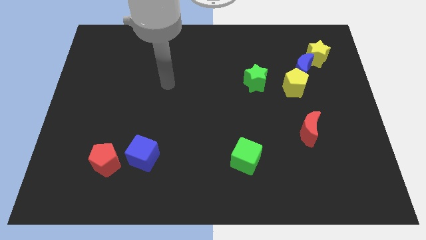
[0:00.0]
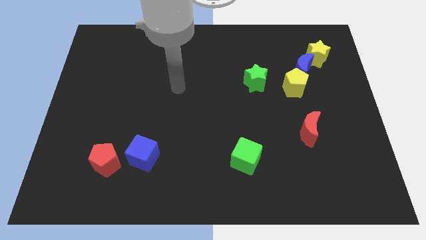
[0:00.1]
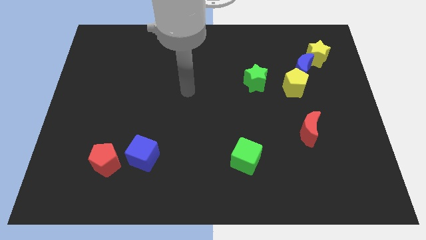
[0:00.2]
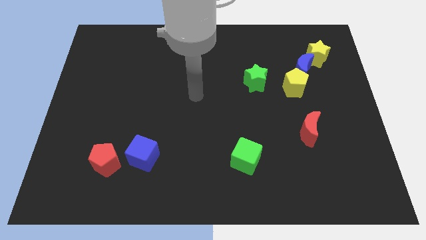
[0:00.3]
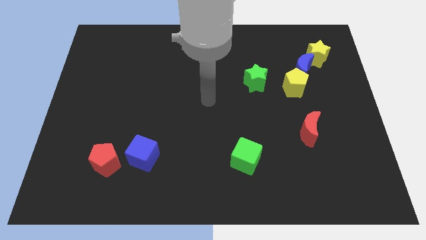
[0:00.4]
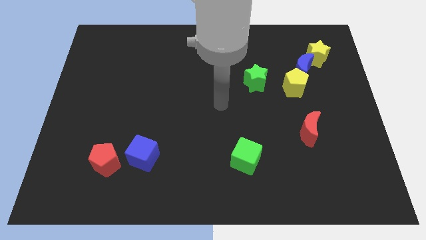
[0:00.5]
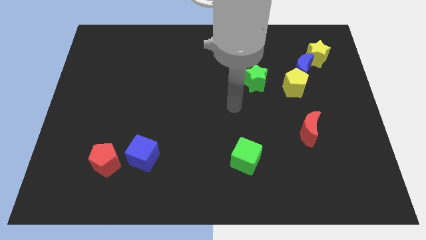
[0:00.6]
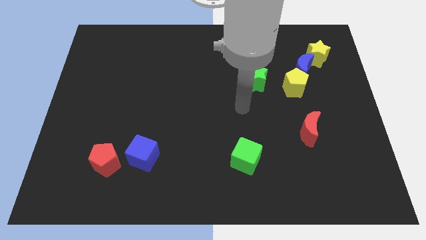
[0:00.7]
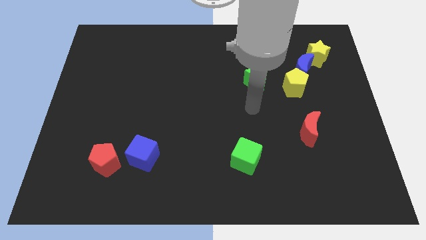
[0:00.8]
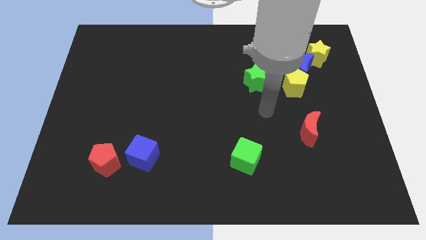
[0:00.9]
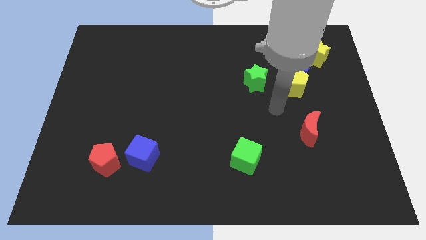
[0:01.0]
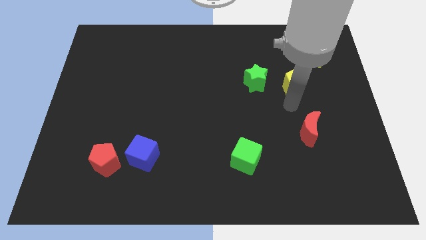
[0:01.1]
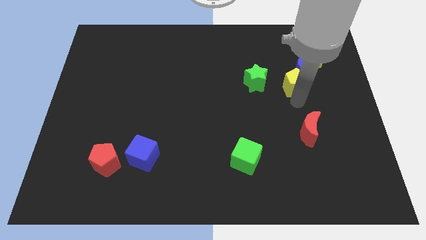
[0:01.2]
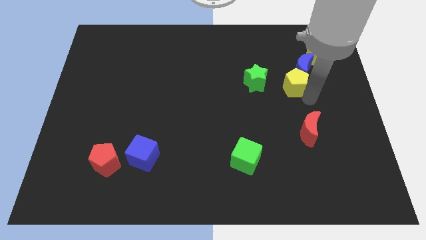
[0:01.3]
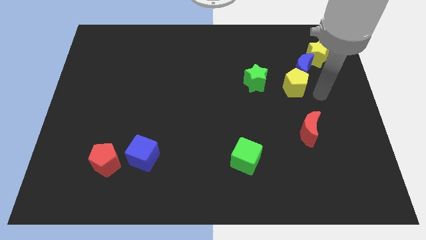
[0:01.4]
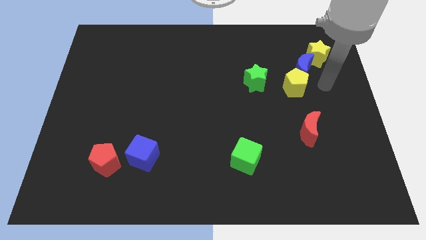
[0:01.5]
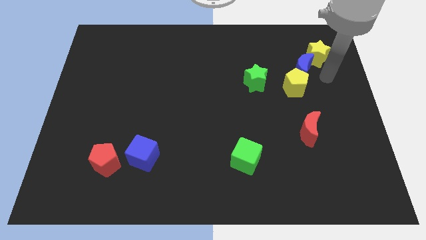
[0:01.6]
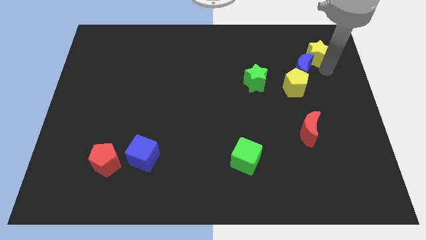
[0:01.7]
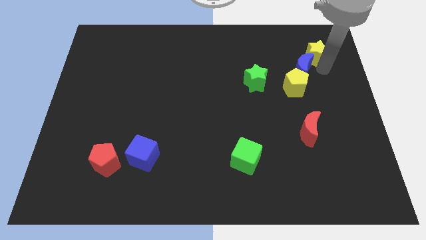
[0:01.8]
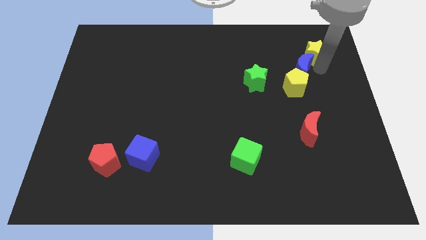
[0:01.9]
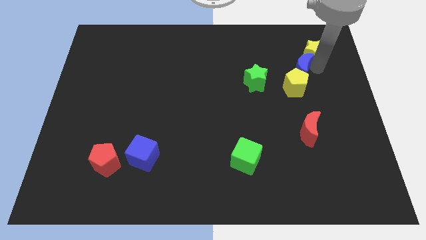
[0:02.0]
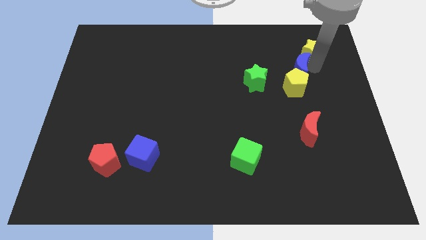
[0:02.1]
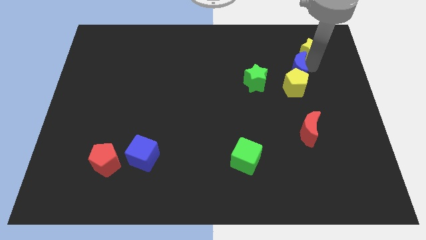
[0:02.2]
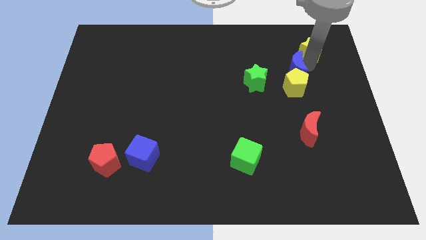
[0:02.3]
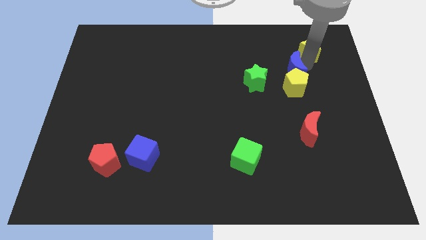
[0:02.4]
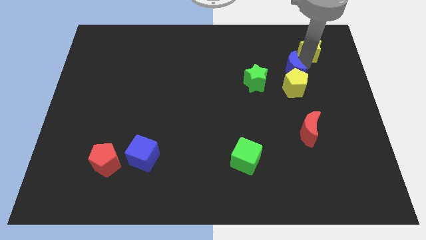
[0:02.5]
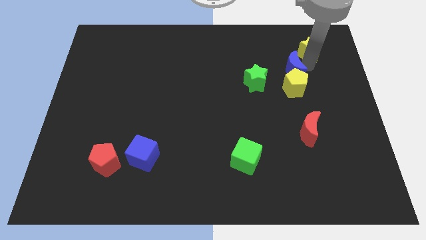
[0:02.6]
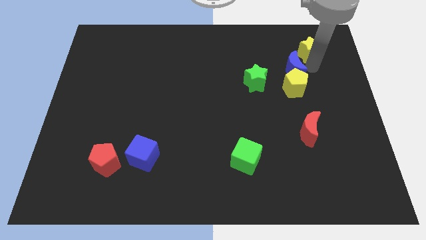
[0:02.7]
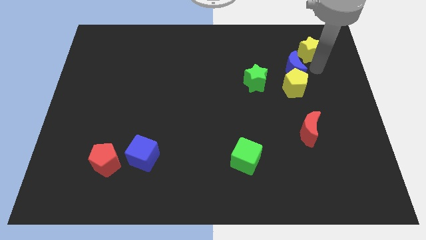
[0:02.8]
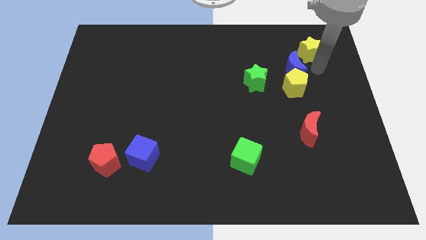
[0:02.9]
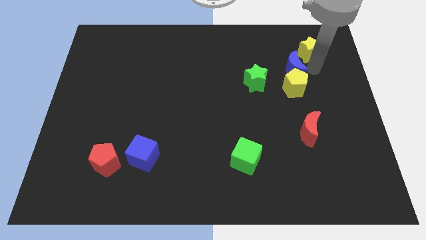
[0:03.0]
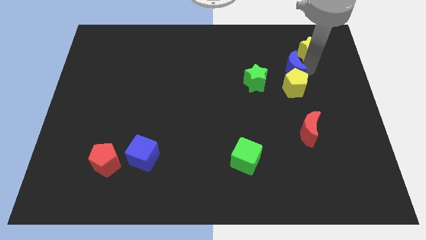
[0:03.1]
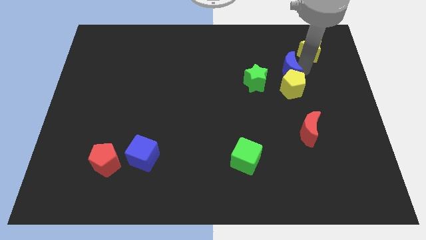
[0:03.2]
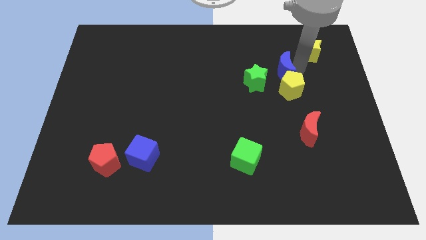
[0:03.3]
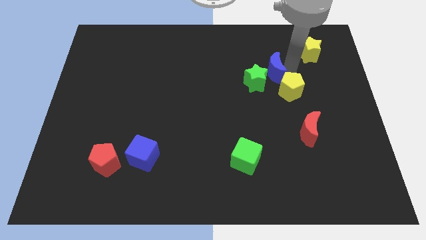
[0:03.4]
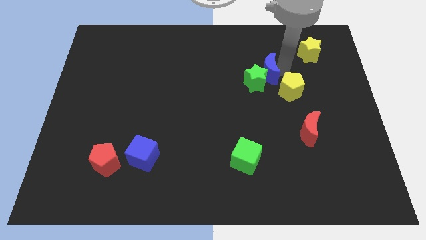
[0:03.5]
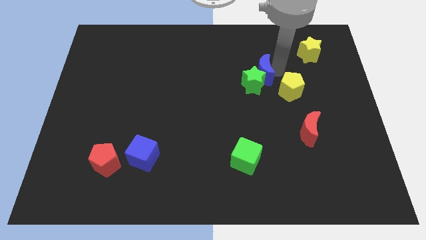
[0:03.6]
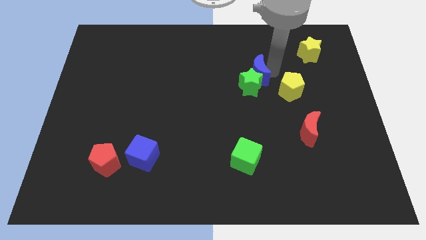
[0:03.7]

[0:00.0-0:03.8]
pull the blue moon apart from the yellow pentagon and yellow star

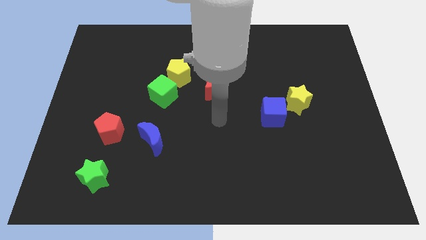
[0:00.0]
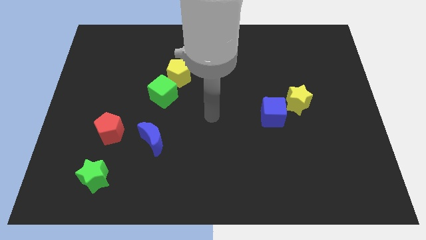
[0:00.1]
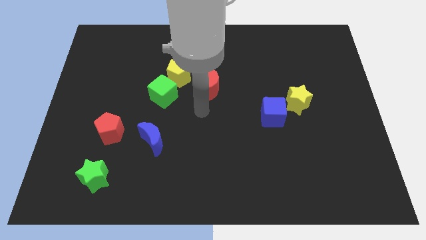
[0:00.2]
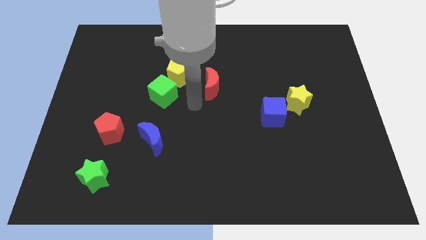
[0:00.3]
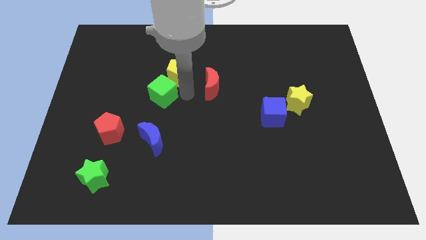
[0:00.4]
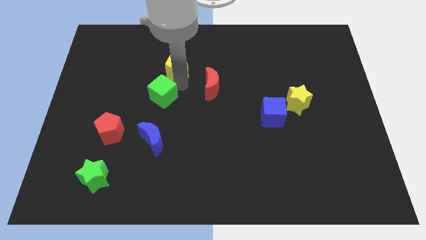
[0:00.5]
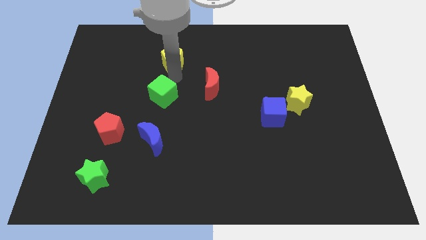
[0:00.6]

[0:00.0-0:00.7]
separate the green cube from the yellow pentagon

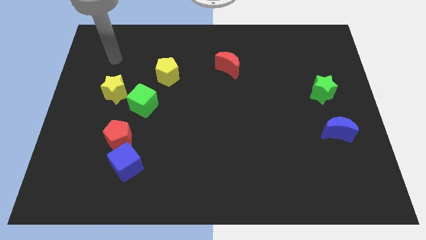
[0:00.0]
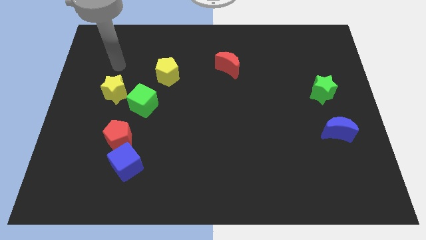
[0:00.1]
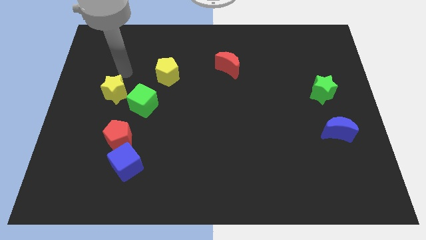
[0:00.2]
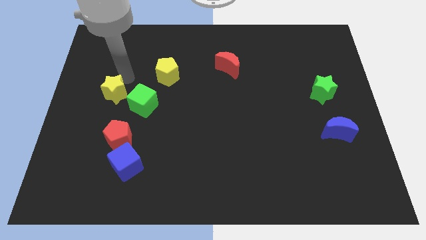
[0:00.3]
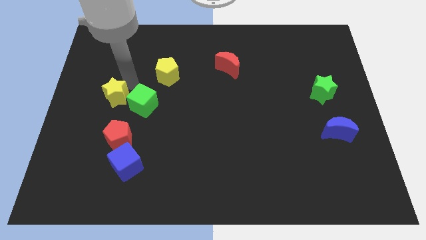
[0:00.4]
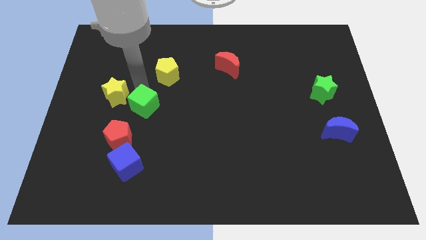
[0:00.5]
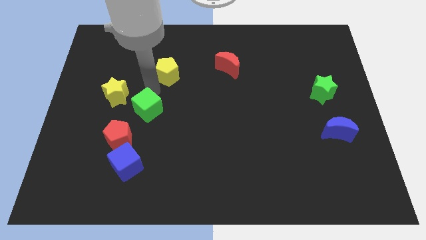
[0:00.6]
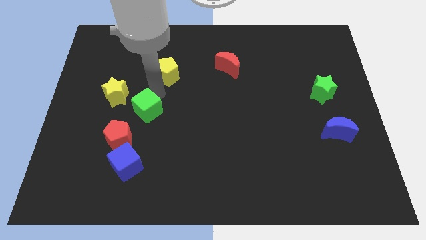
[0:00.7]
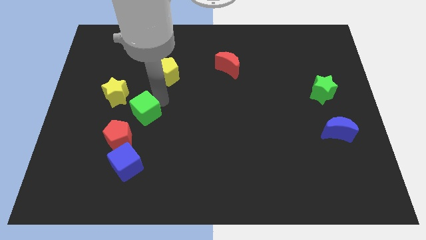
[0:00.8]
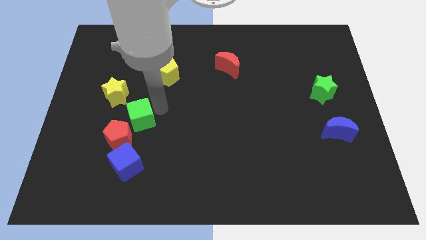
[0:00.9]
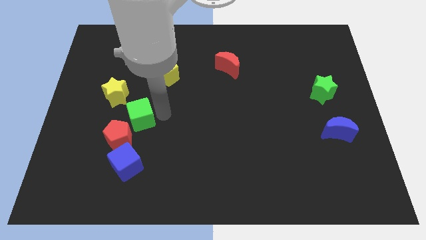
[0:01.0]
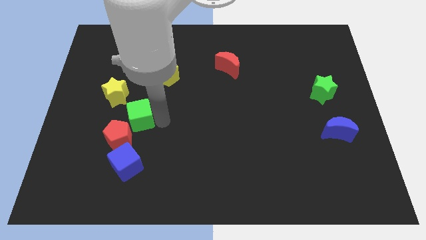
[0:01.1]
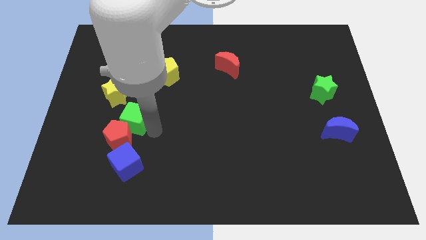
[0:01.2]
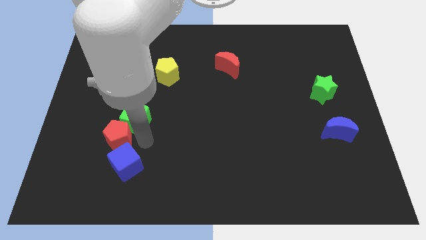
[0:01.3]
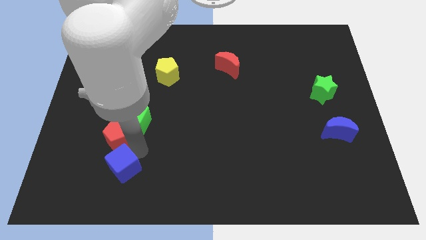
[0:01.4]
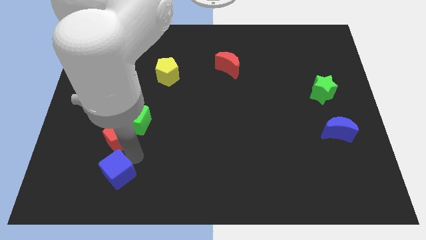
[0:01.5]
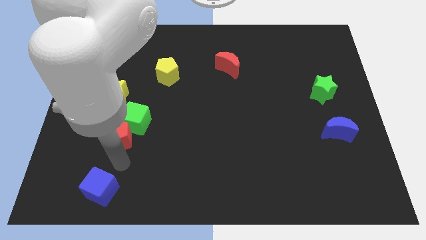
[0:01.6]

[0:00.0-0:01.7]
separate the red pentagon from the blue cube

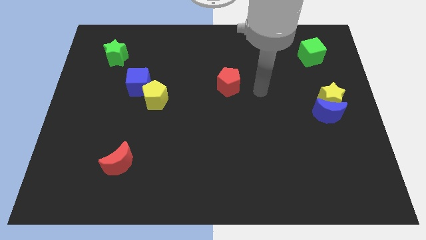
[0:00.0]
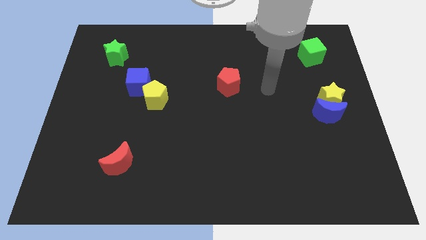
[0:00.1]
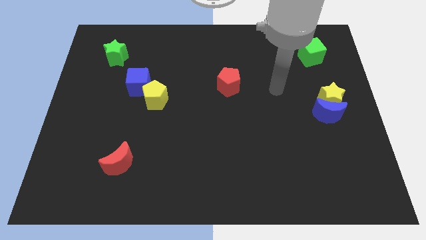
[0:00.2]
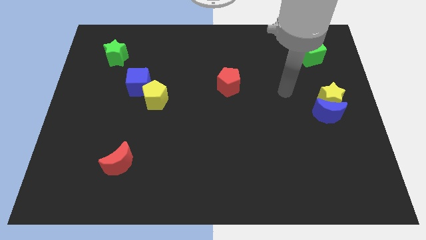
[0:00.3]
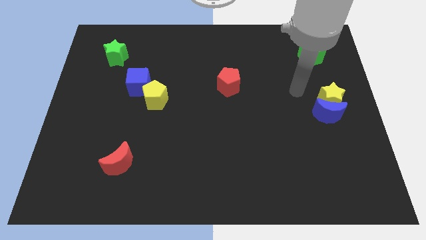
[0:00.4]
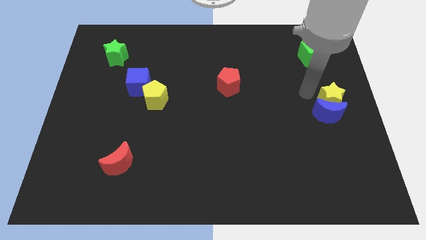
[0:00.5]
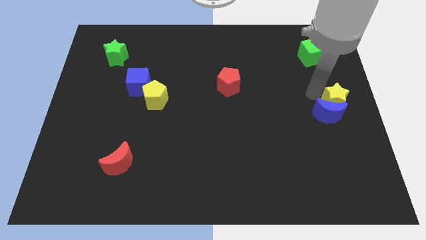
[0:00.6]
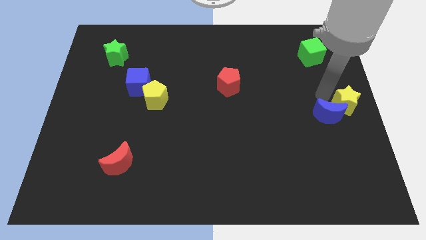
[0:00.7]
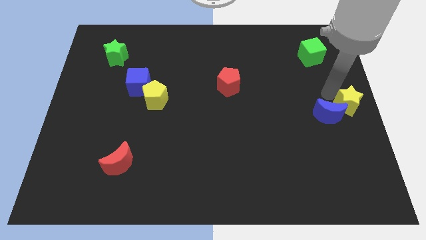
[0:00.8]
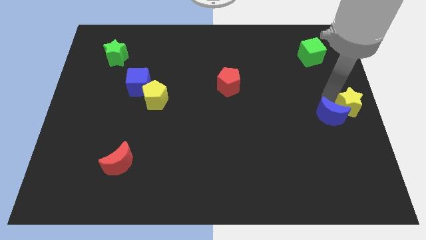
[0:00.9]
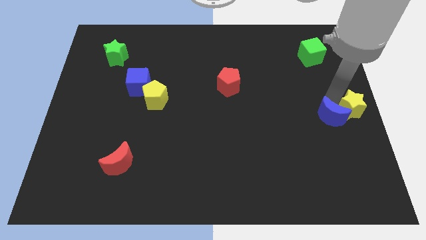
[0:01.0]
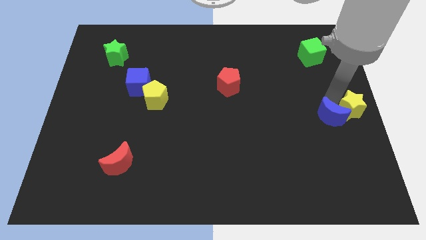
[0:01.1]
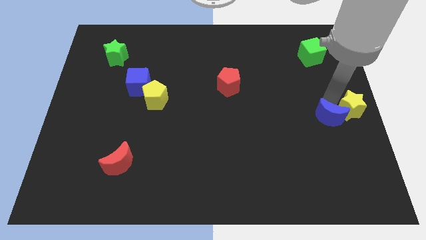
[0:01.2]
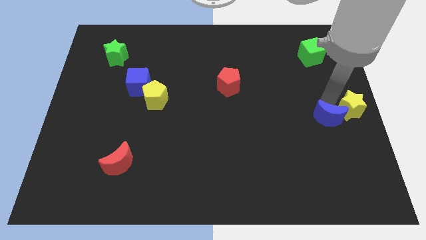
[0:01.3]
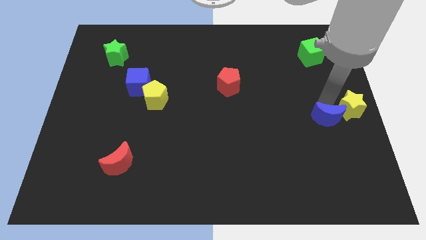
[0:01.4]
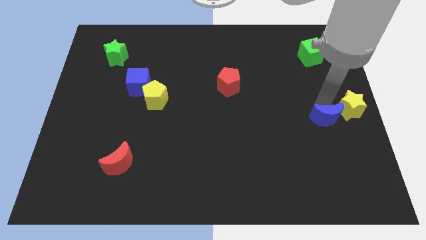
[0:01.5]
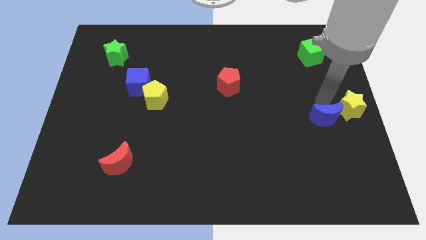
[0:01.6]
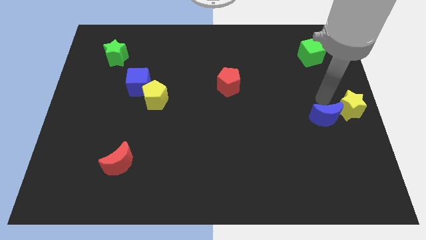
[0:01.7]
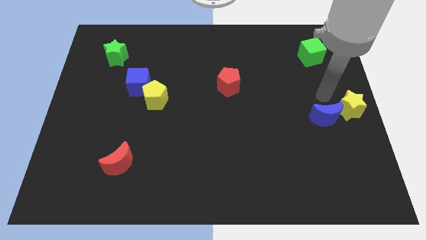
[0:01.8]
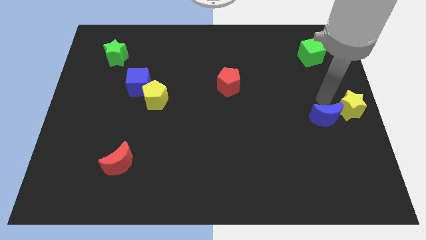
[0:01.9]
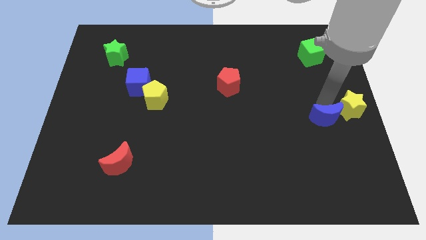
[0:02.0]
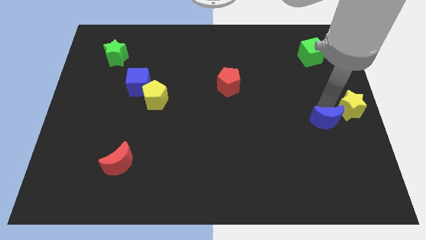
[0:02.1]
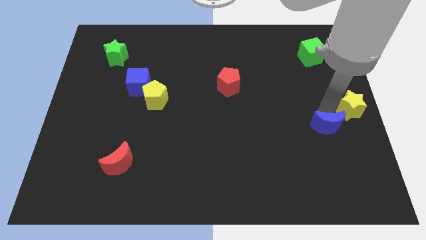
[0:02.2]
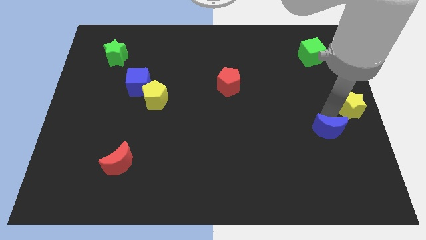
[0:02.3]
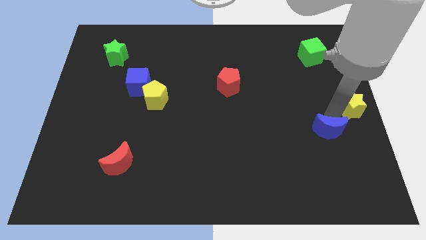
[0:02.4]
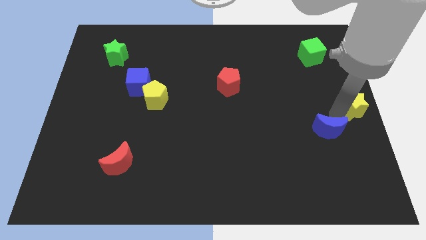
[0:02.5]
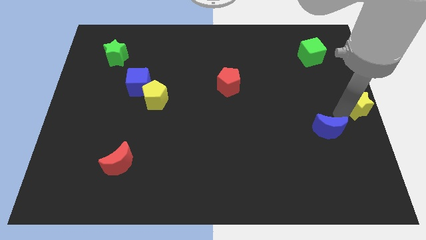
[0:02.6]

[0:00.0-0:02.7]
separate the blue moon from the yellow star

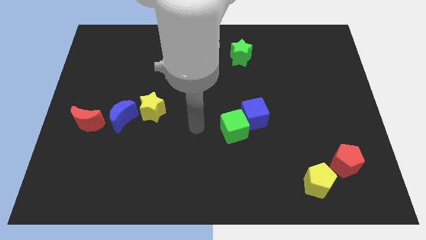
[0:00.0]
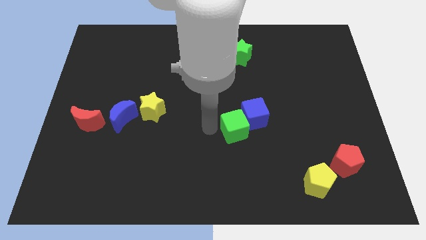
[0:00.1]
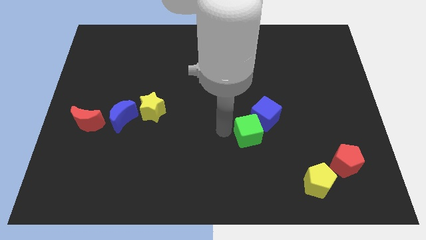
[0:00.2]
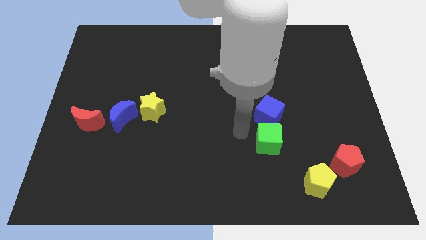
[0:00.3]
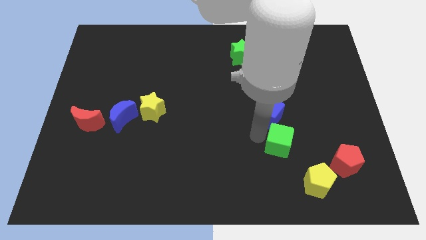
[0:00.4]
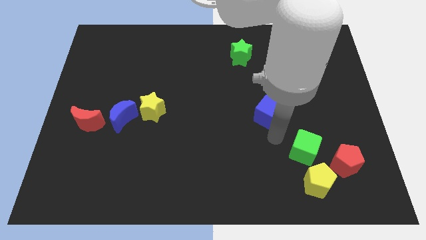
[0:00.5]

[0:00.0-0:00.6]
pull the blue cube apart from the green cube
